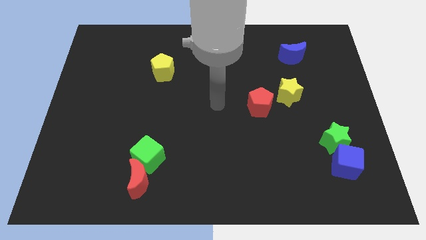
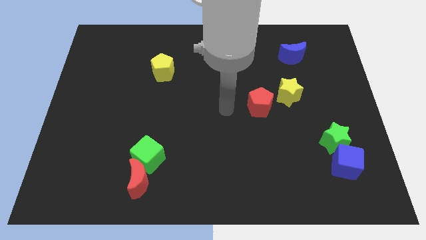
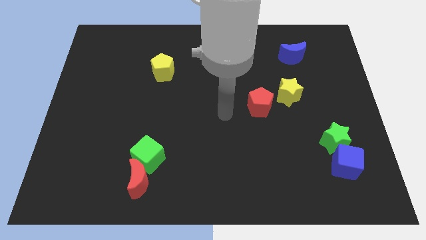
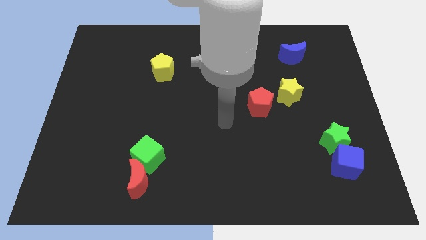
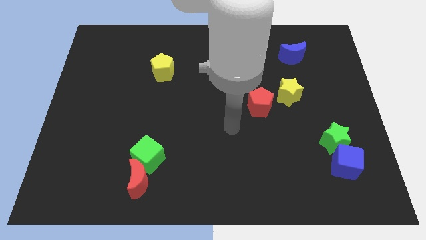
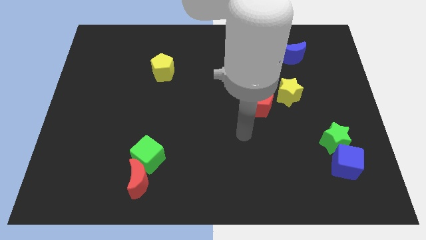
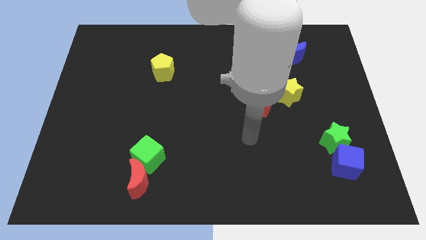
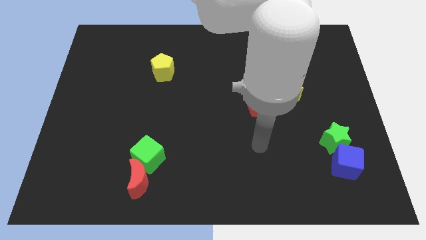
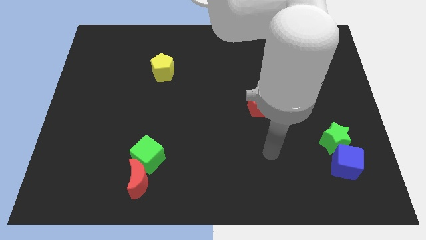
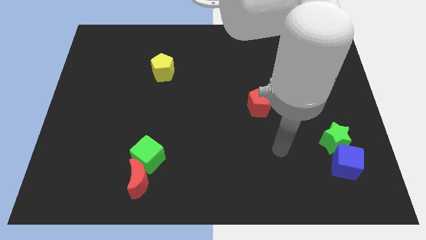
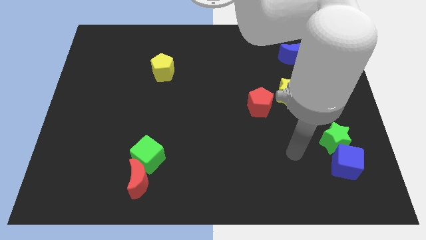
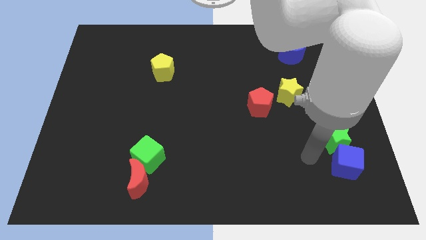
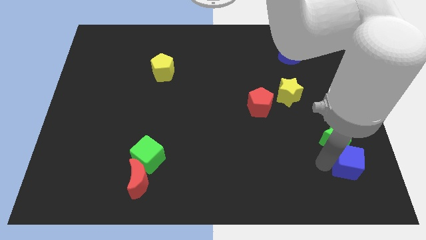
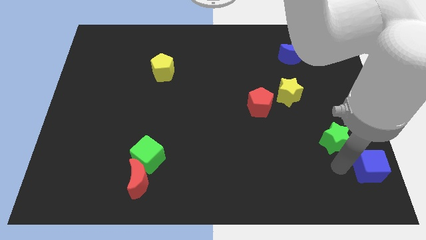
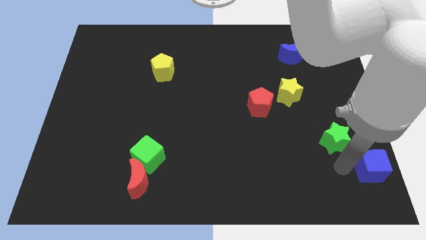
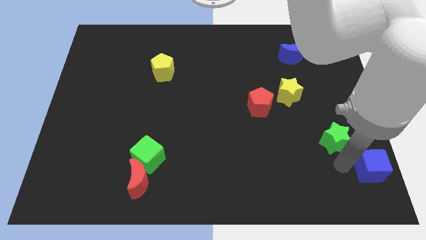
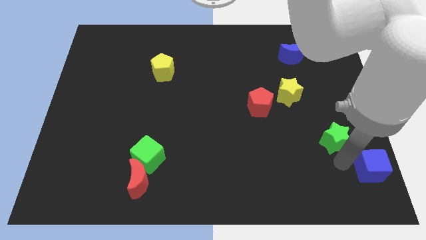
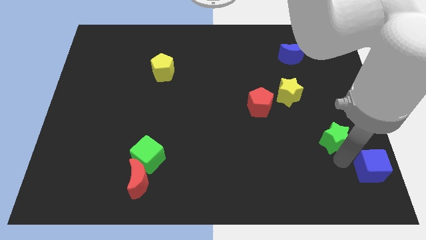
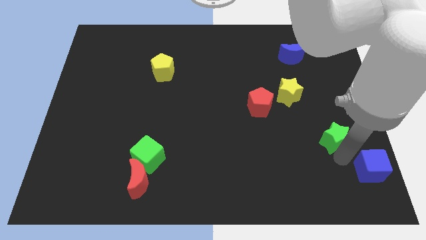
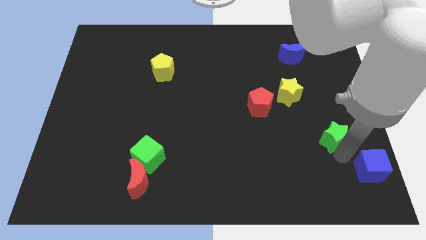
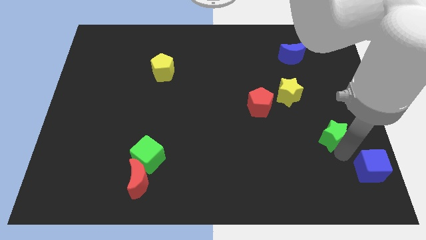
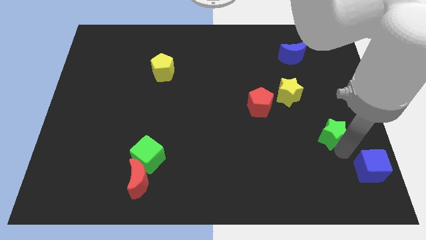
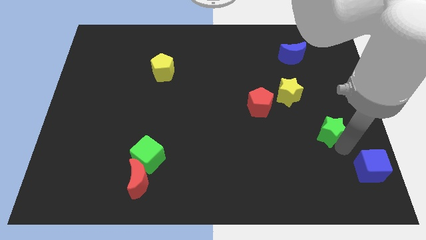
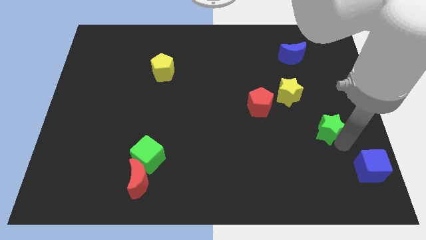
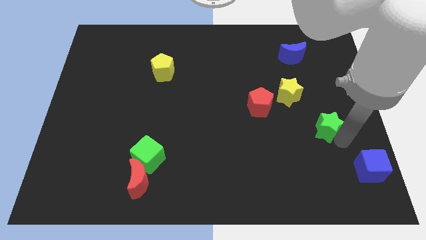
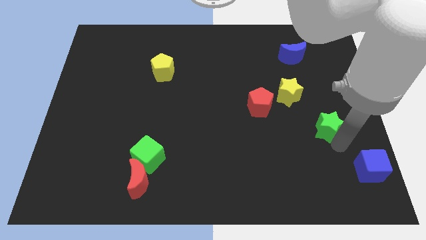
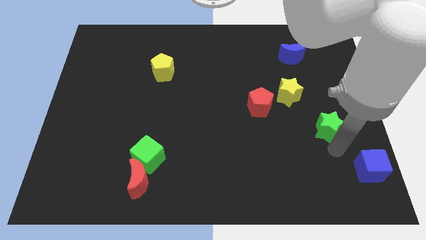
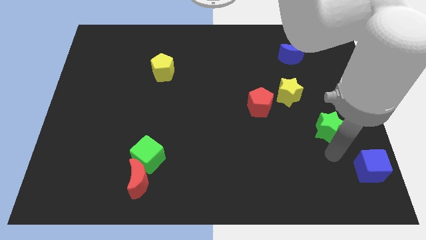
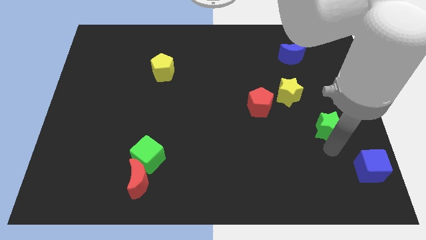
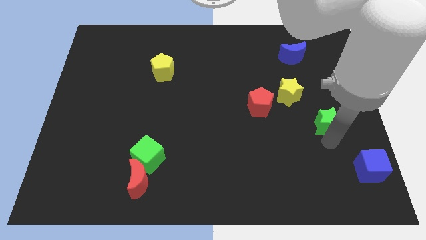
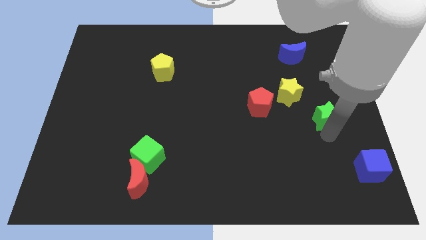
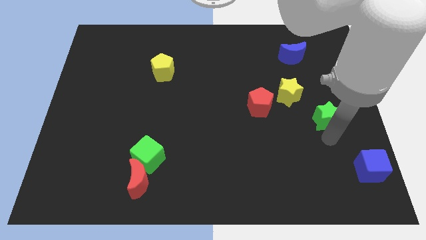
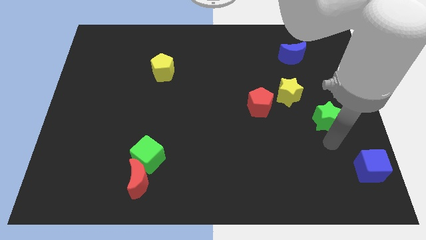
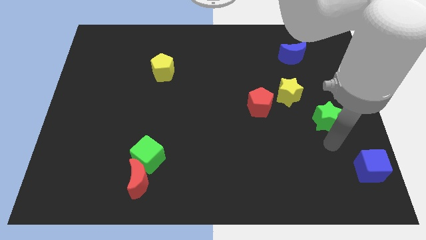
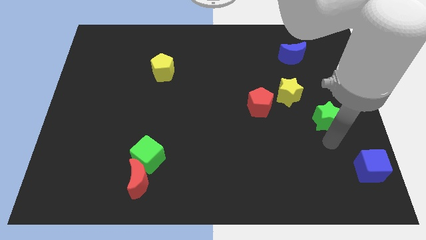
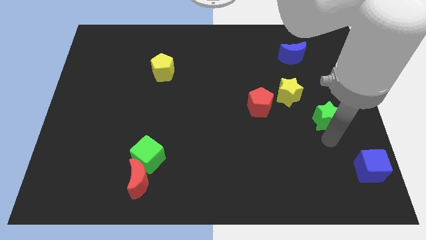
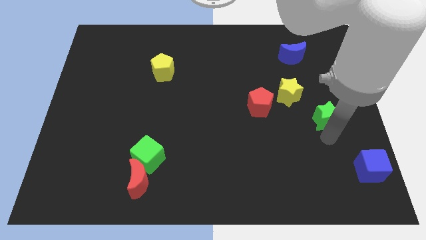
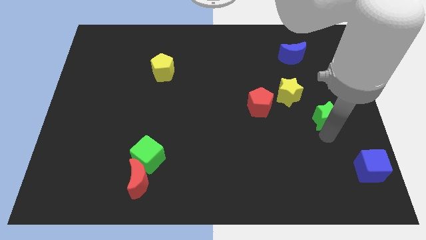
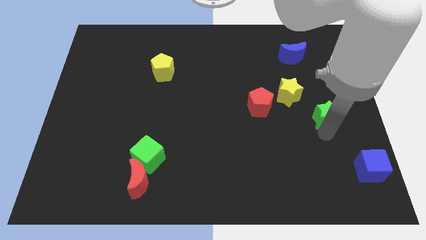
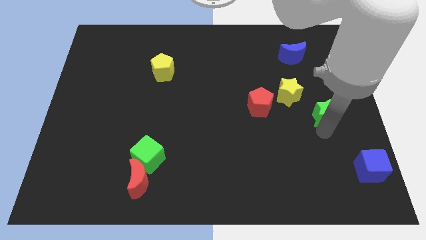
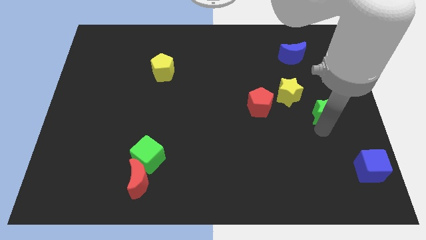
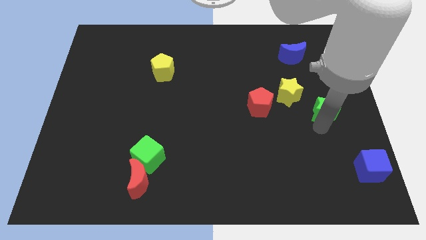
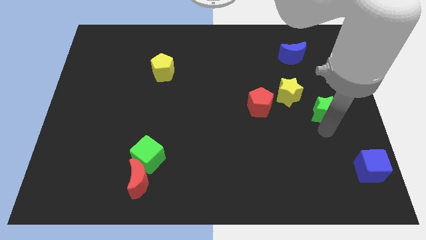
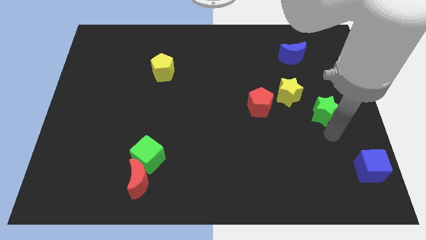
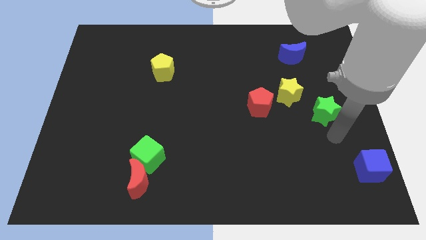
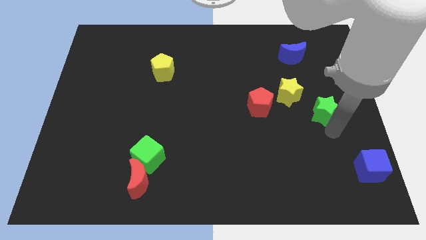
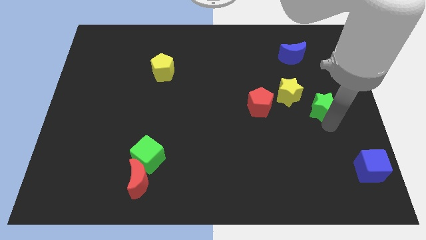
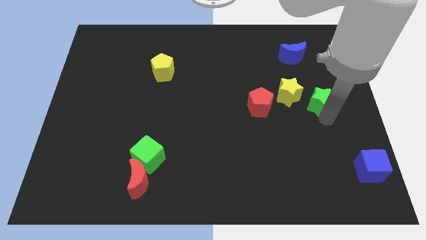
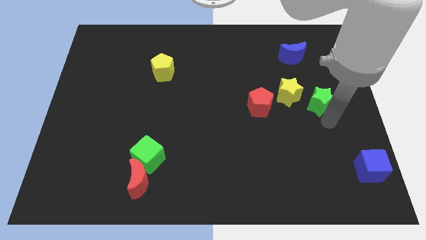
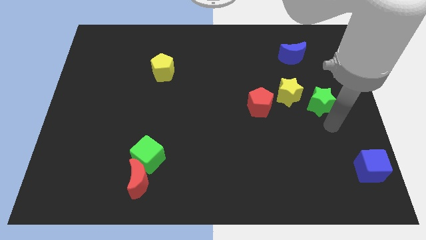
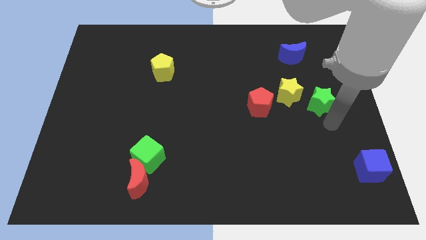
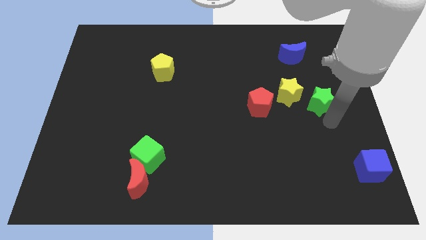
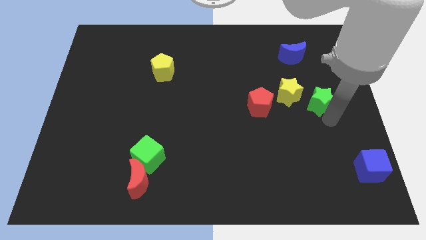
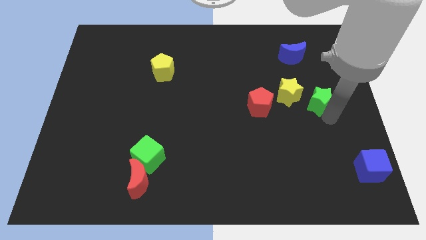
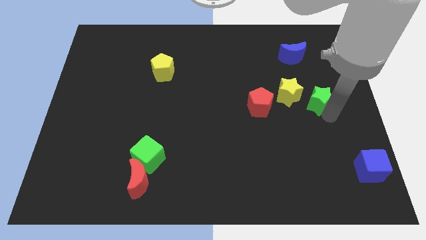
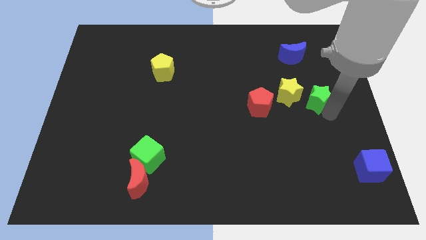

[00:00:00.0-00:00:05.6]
push the green star diagonally upwards and to the left a little bit

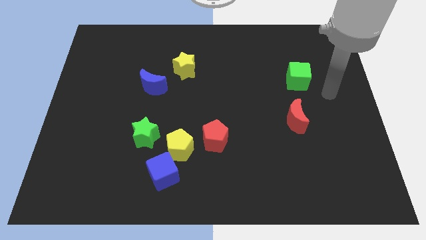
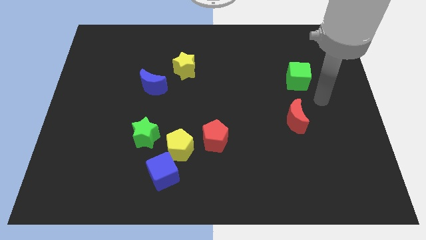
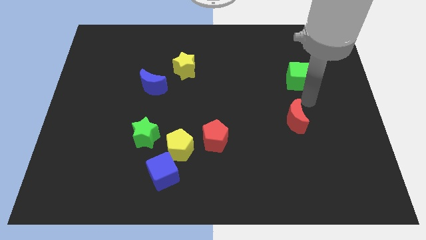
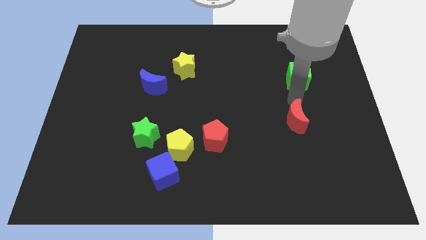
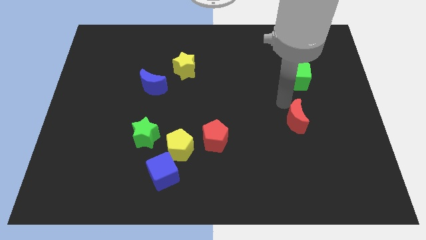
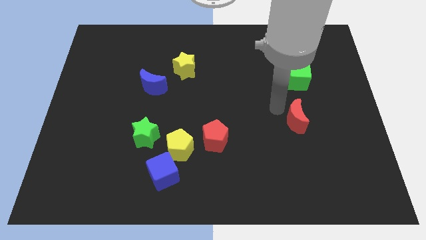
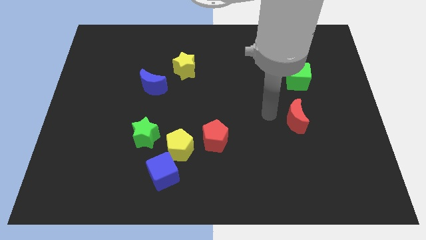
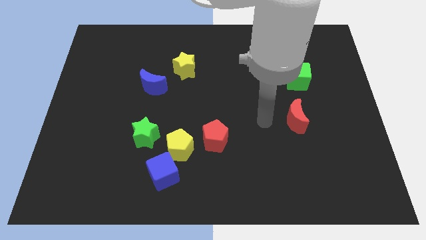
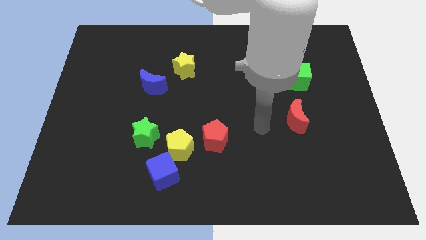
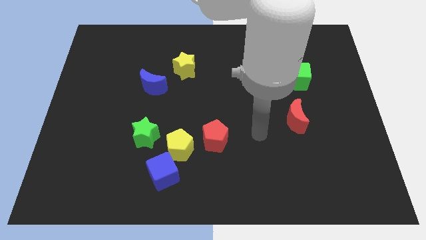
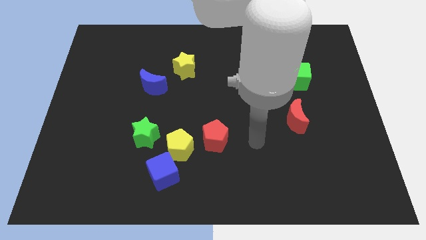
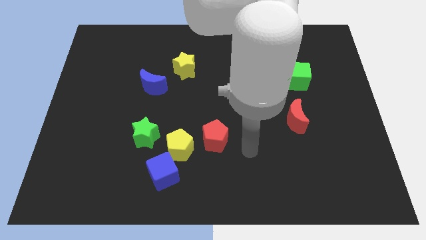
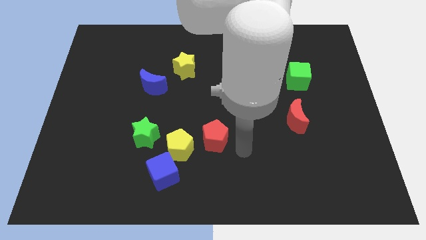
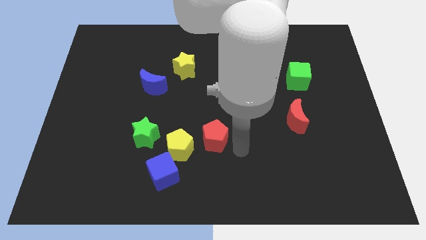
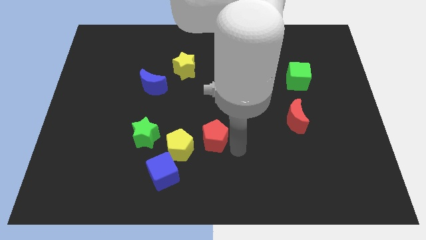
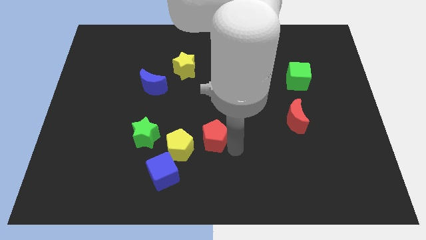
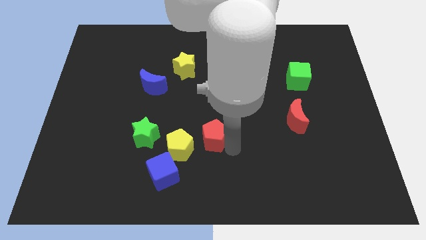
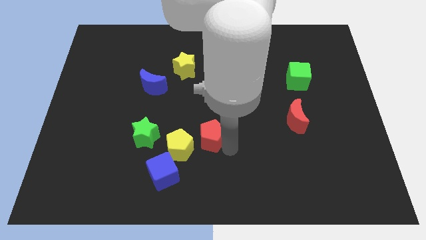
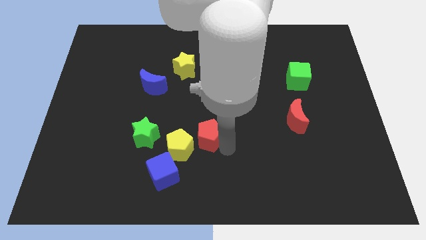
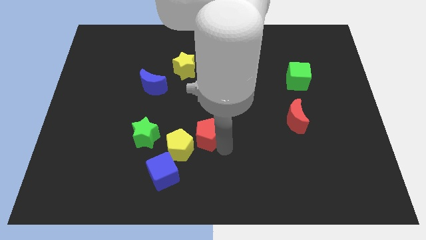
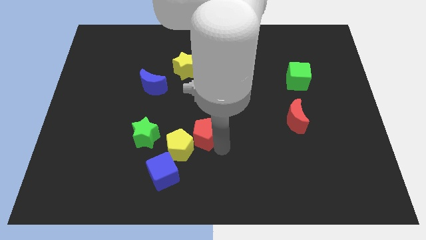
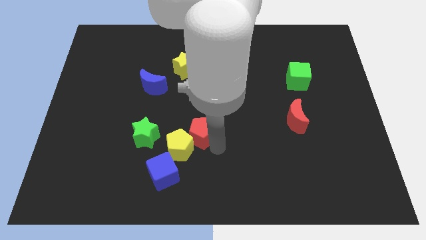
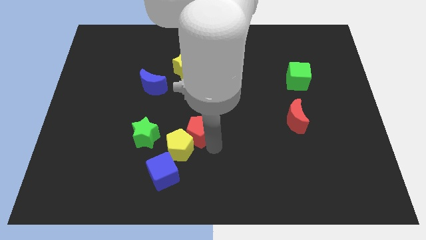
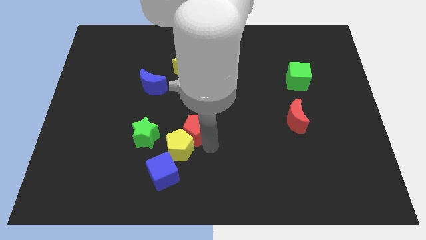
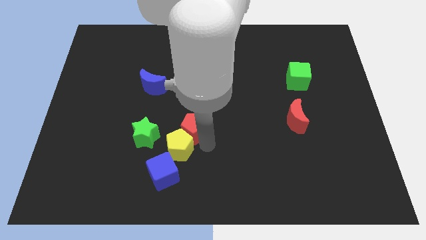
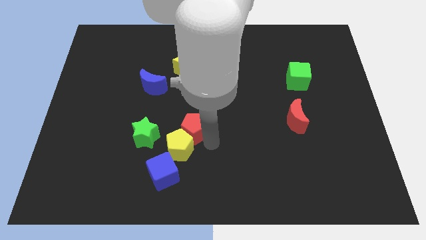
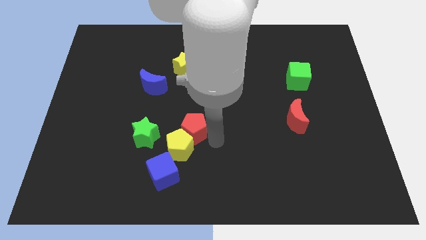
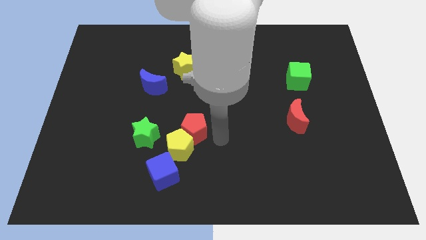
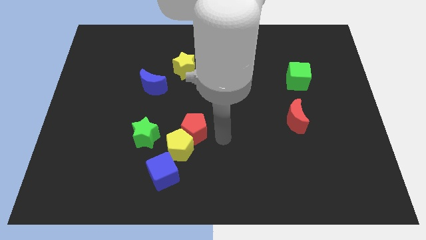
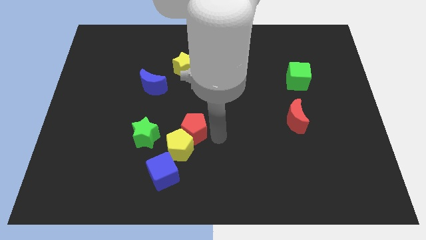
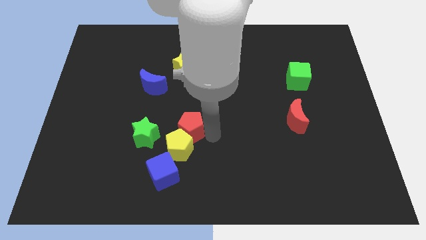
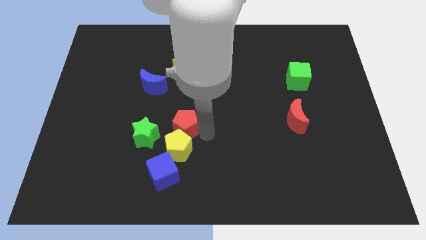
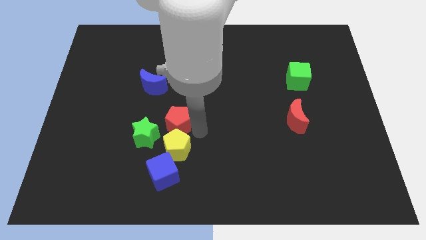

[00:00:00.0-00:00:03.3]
push the red pentagon left a bit
